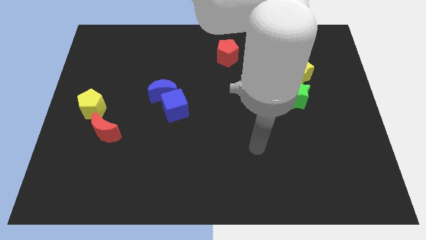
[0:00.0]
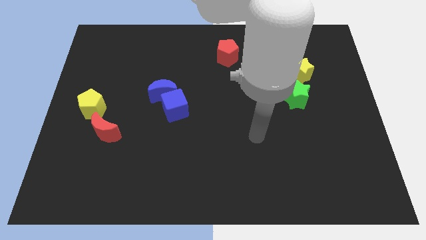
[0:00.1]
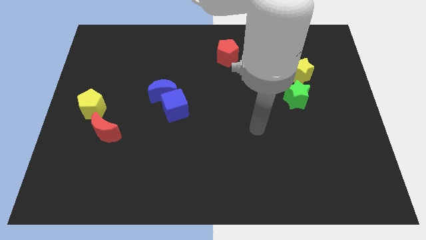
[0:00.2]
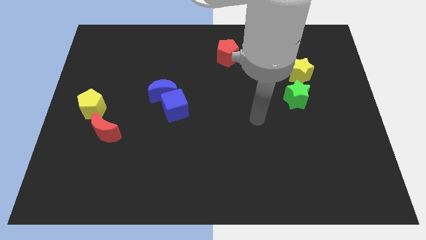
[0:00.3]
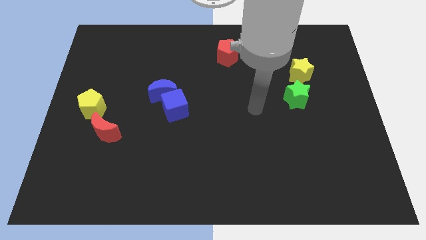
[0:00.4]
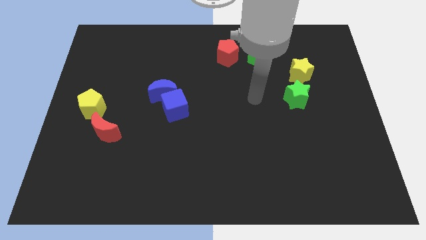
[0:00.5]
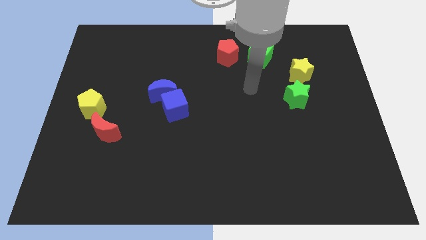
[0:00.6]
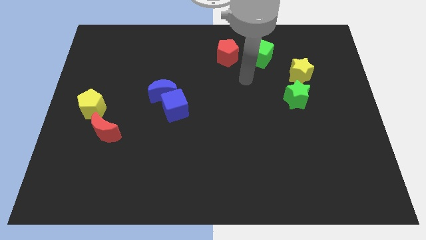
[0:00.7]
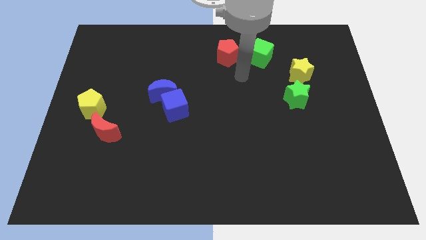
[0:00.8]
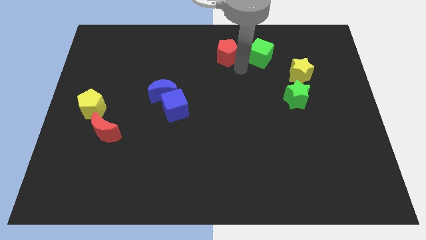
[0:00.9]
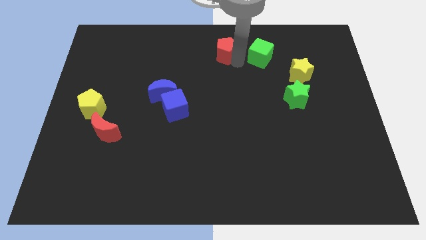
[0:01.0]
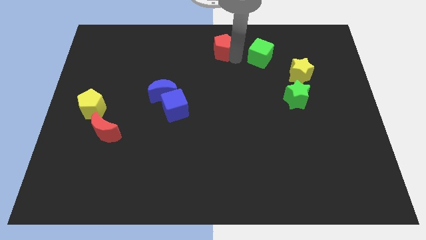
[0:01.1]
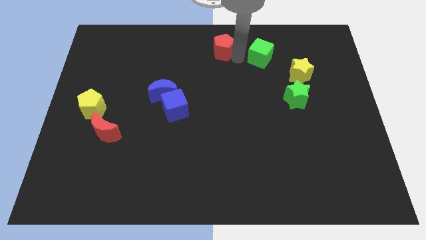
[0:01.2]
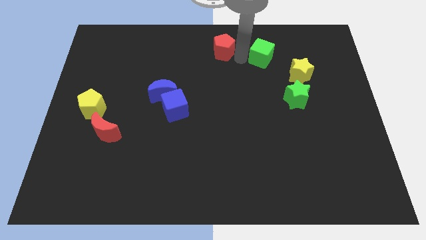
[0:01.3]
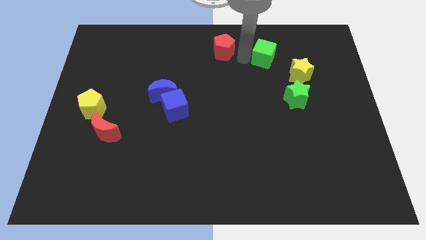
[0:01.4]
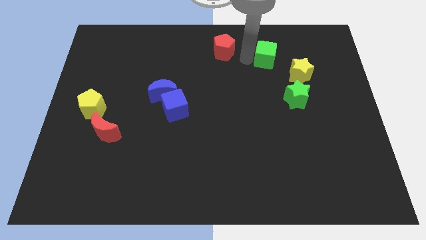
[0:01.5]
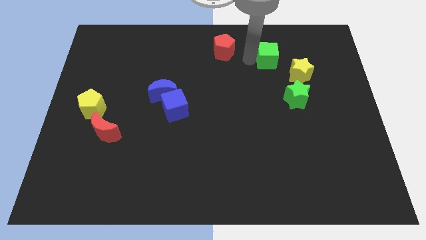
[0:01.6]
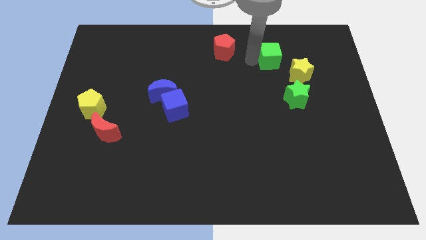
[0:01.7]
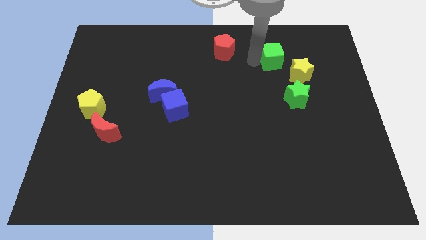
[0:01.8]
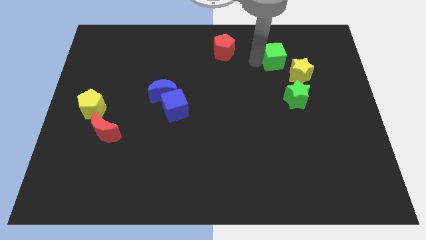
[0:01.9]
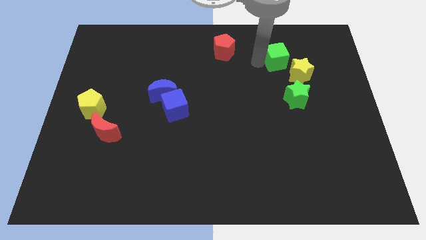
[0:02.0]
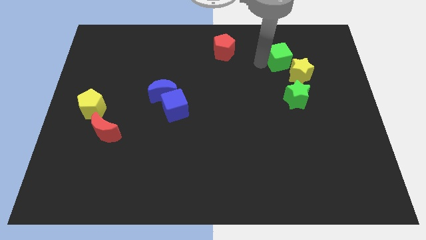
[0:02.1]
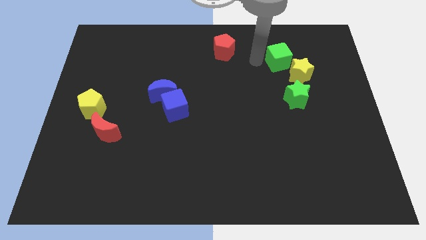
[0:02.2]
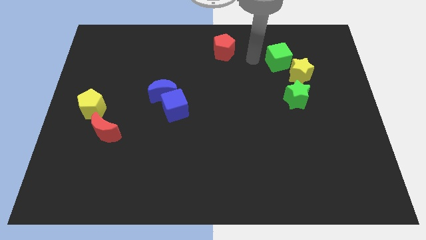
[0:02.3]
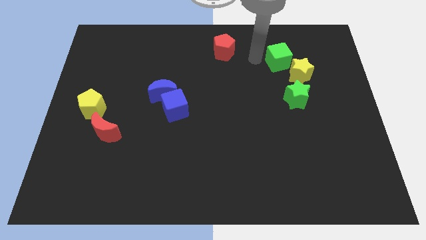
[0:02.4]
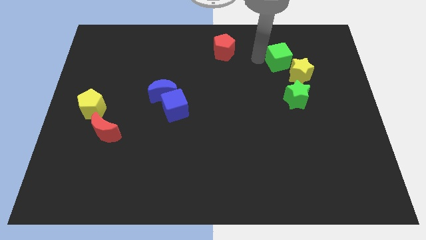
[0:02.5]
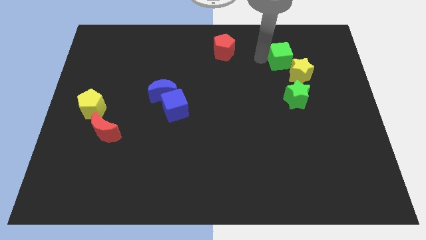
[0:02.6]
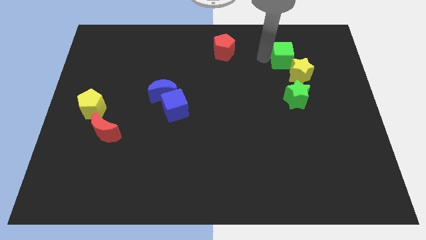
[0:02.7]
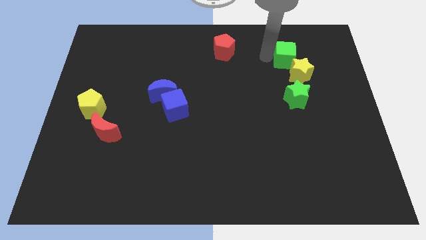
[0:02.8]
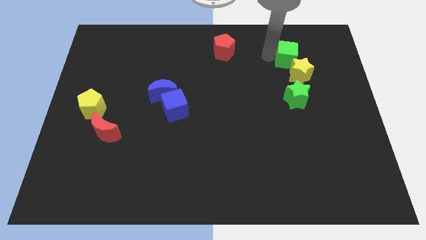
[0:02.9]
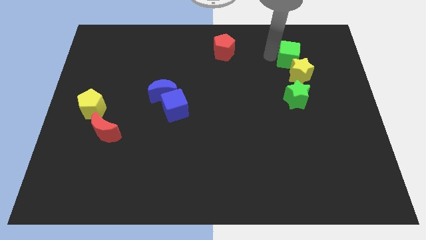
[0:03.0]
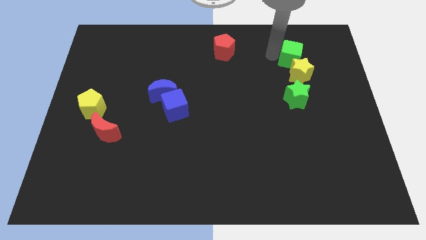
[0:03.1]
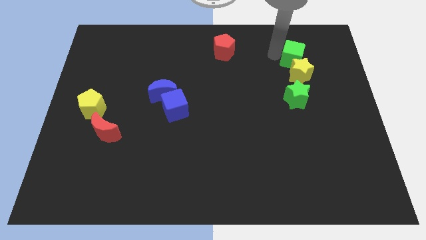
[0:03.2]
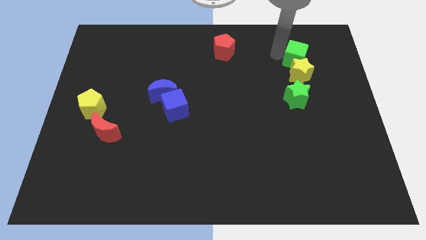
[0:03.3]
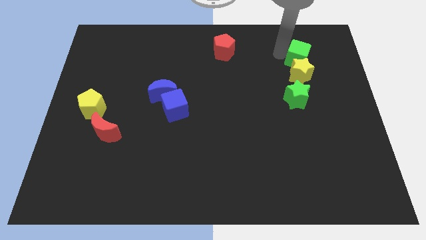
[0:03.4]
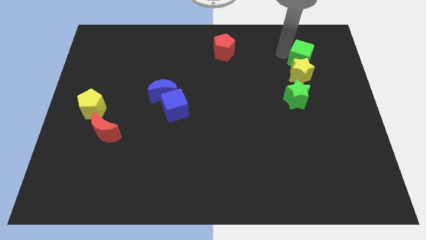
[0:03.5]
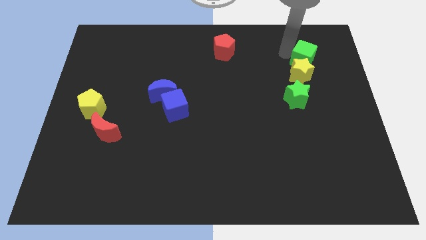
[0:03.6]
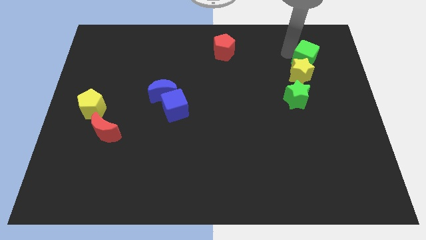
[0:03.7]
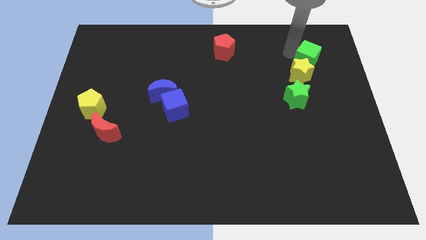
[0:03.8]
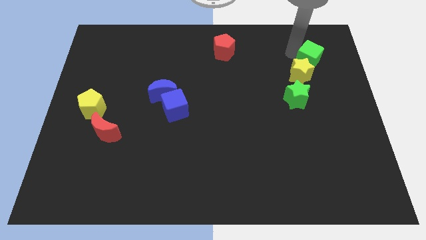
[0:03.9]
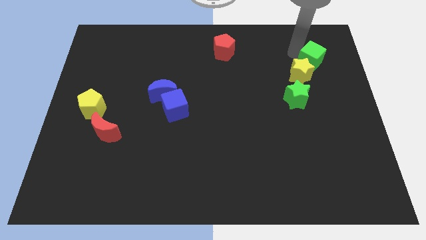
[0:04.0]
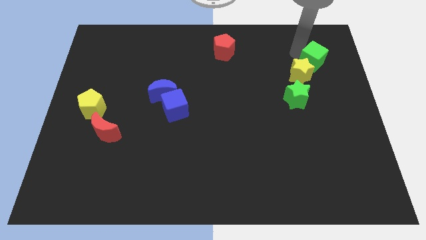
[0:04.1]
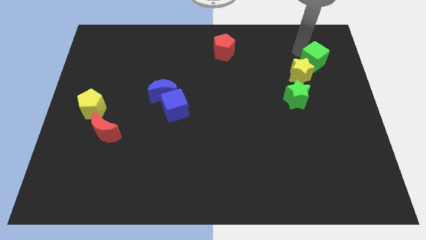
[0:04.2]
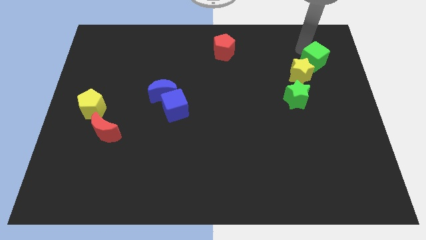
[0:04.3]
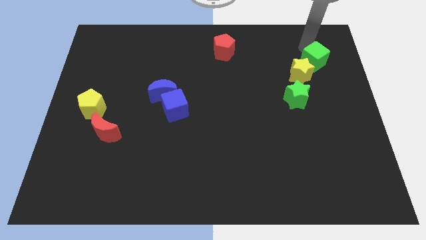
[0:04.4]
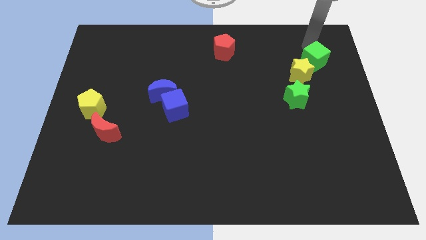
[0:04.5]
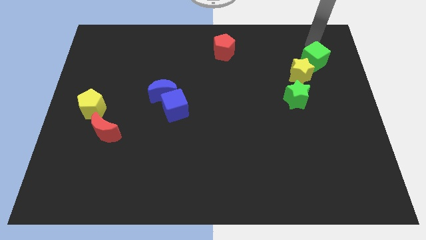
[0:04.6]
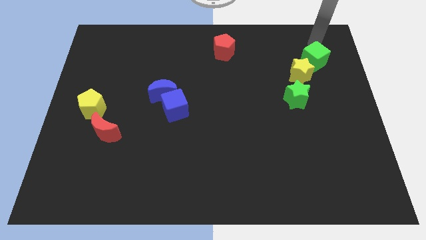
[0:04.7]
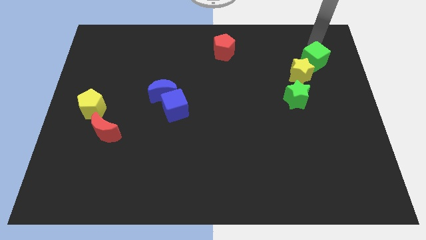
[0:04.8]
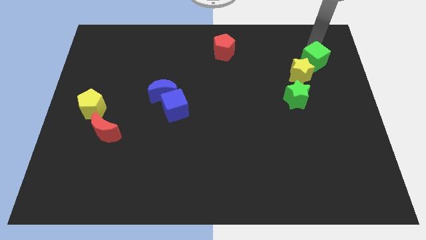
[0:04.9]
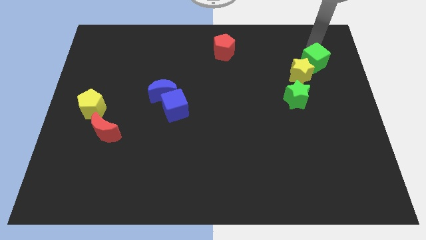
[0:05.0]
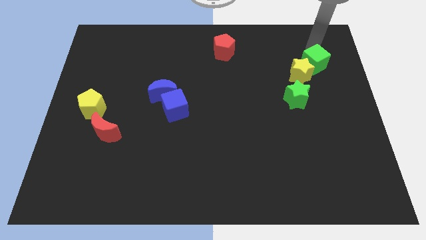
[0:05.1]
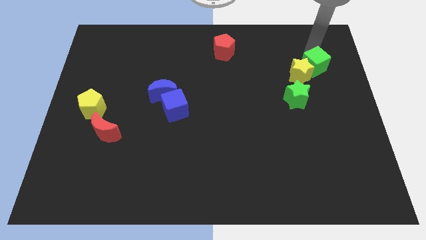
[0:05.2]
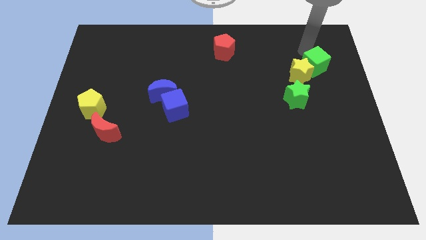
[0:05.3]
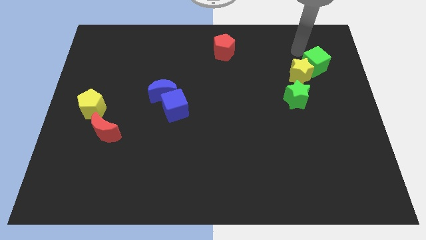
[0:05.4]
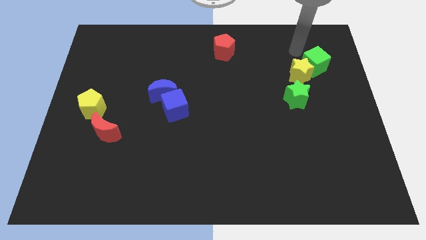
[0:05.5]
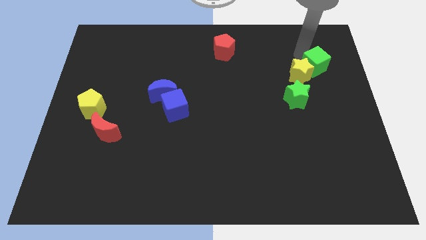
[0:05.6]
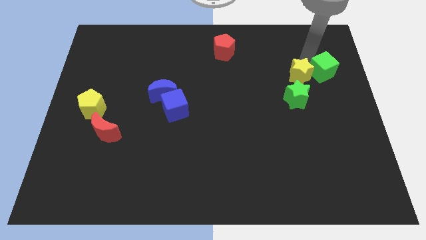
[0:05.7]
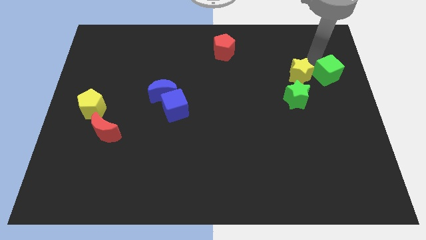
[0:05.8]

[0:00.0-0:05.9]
put the green cube to the right side
